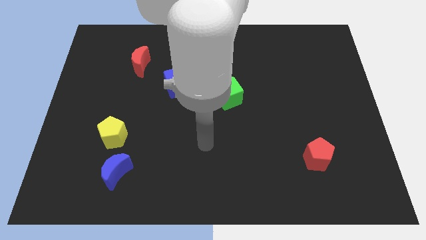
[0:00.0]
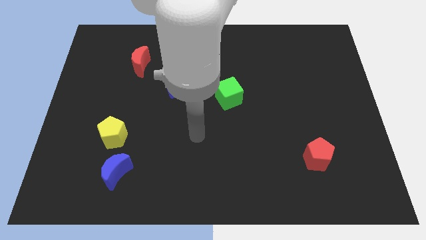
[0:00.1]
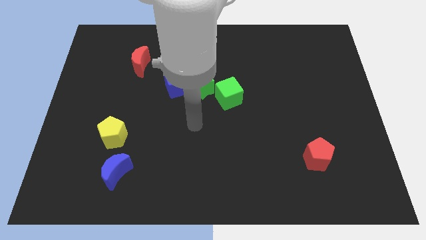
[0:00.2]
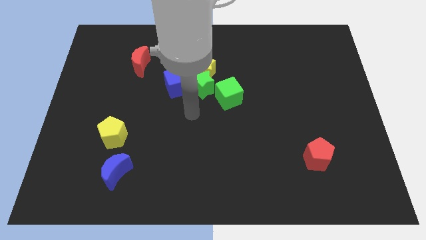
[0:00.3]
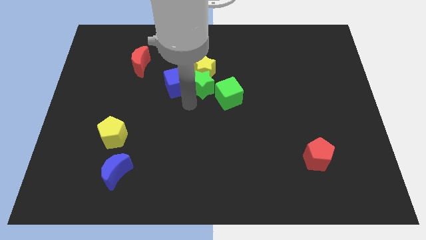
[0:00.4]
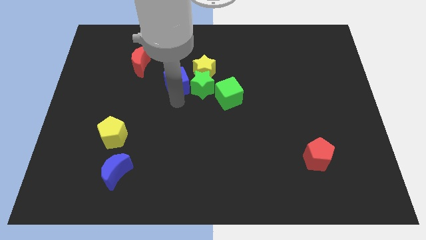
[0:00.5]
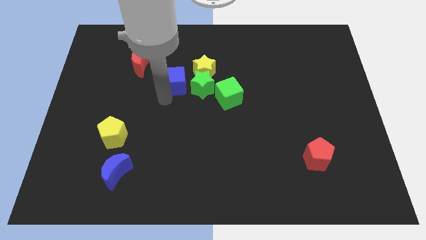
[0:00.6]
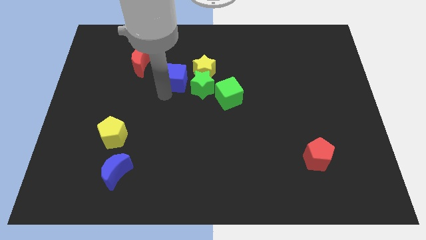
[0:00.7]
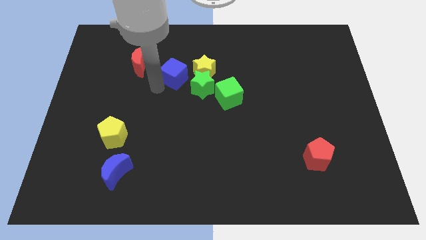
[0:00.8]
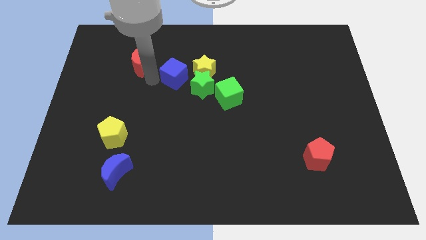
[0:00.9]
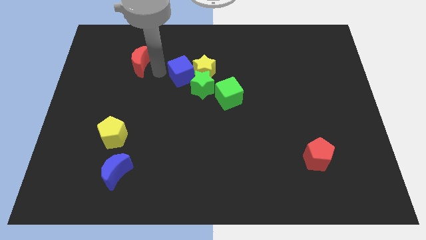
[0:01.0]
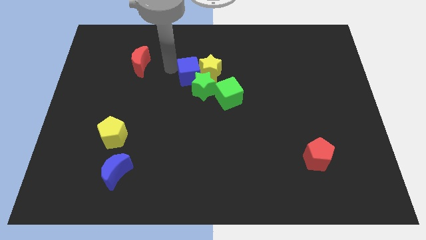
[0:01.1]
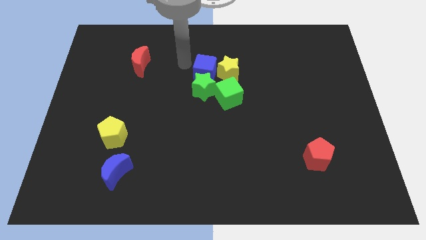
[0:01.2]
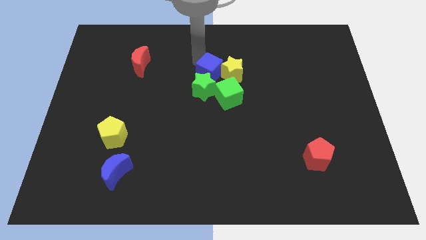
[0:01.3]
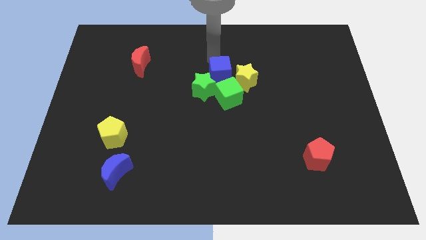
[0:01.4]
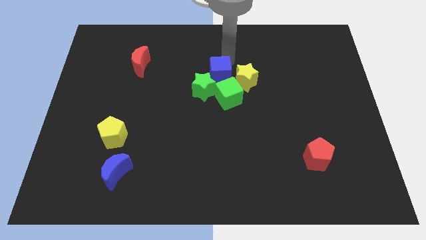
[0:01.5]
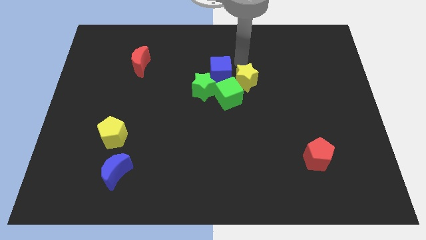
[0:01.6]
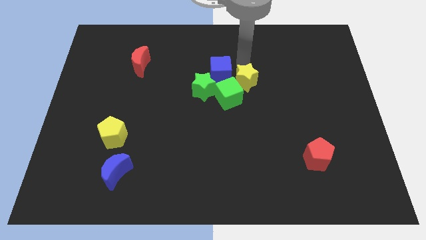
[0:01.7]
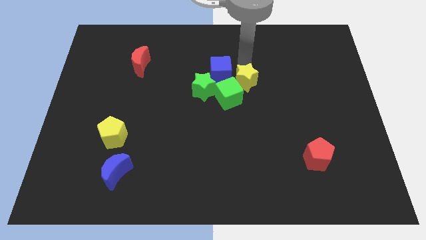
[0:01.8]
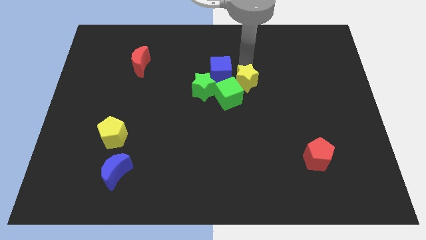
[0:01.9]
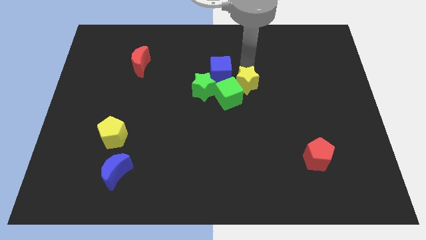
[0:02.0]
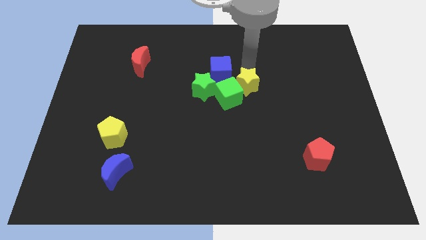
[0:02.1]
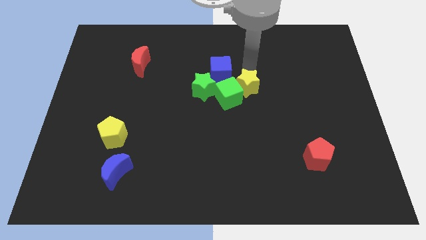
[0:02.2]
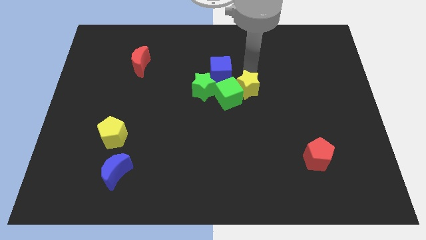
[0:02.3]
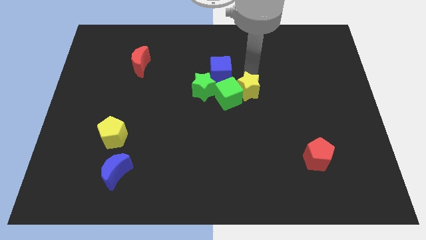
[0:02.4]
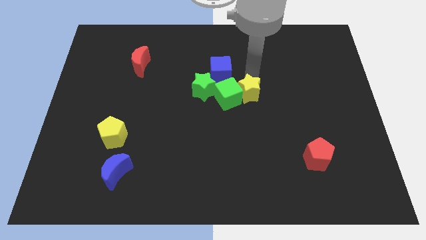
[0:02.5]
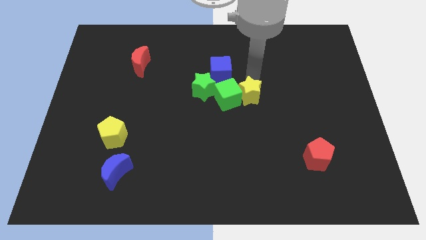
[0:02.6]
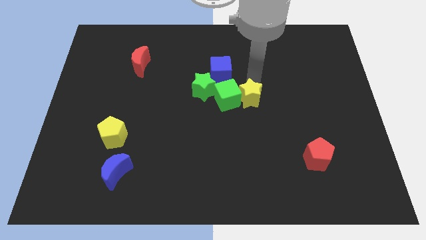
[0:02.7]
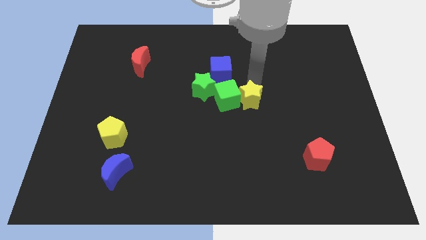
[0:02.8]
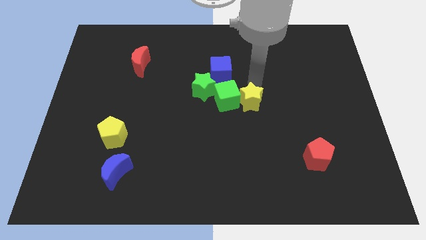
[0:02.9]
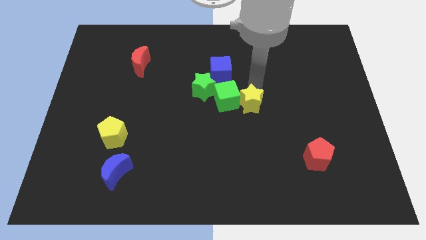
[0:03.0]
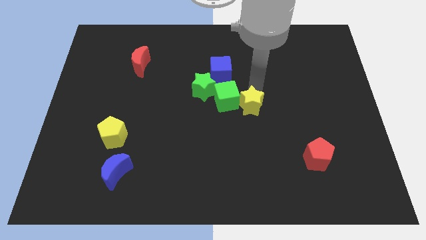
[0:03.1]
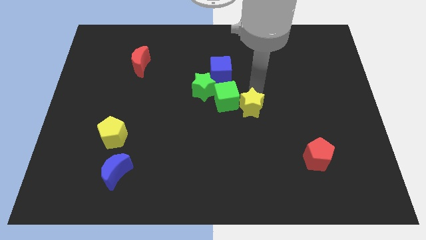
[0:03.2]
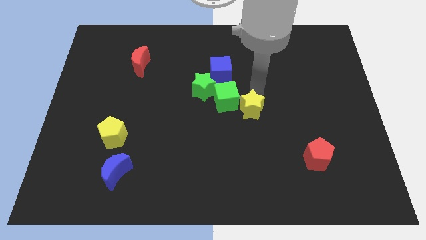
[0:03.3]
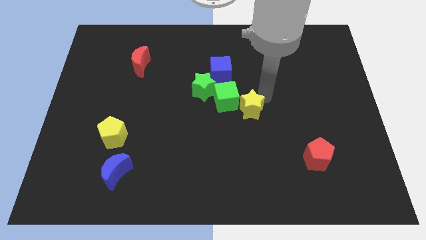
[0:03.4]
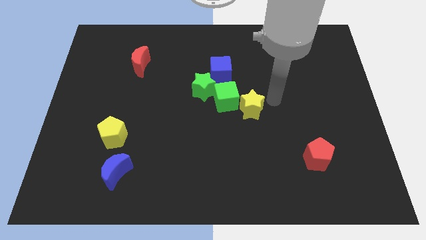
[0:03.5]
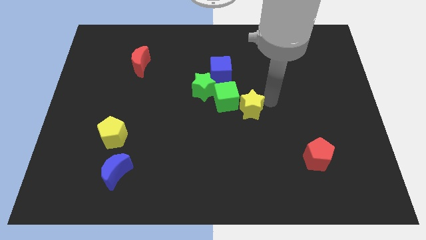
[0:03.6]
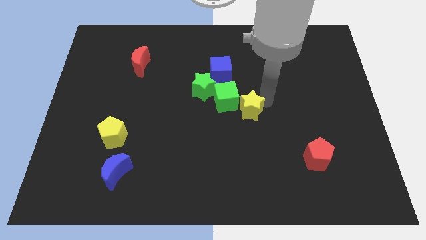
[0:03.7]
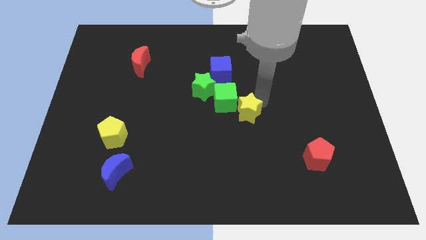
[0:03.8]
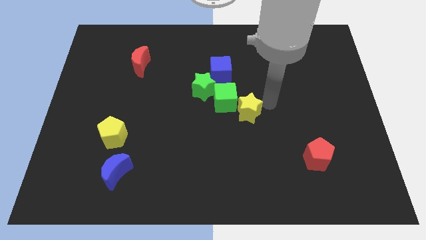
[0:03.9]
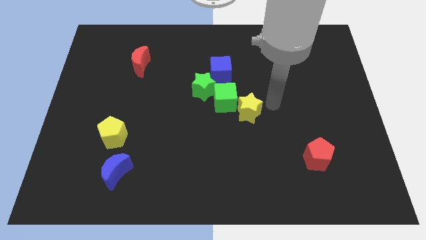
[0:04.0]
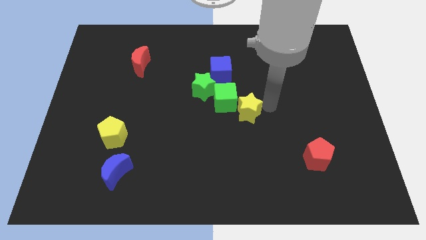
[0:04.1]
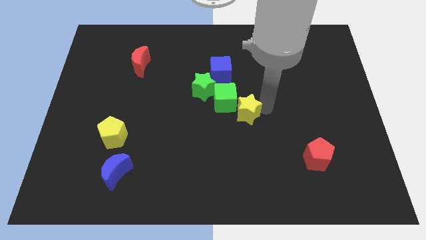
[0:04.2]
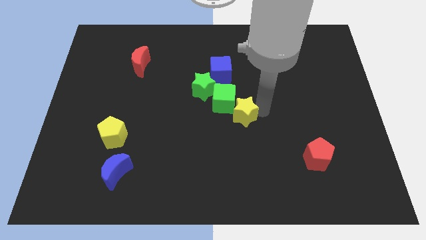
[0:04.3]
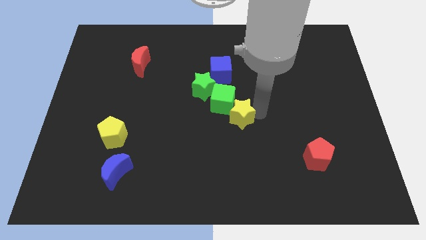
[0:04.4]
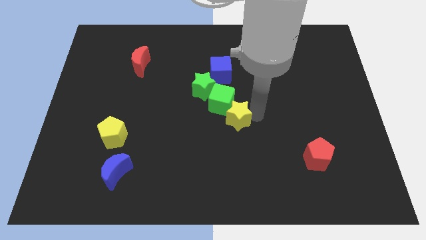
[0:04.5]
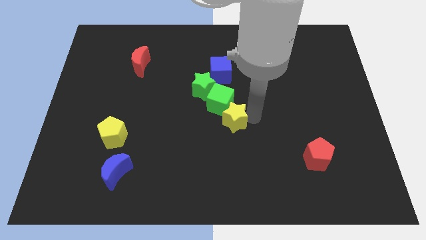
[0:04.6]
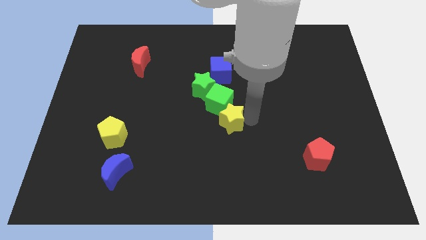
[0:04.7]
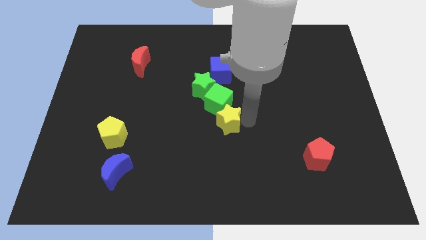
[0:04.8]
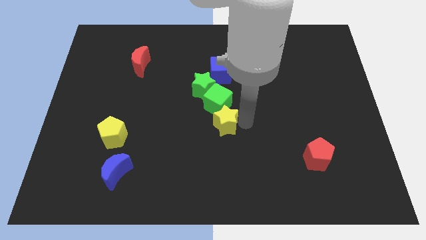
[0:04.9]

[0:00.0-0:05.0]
slide the yellow star to the bottom side of the green star

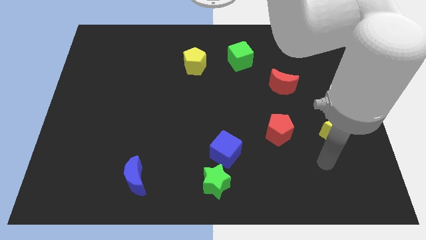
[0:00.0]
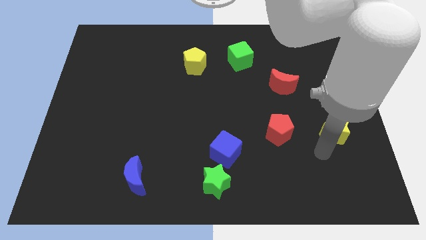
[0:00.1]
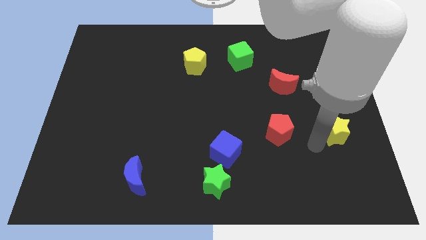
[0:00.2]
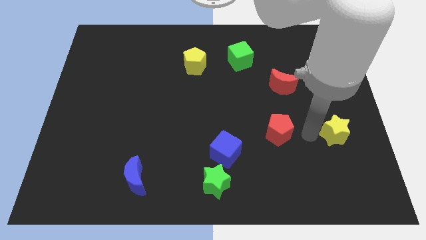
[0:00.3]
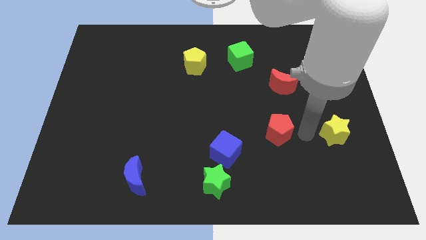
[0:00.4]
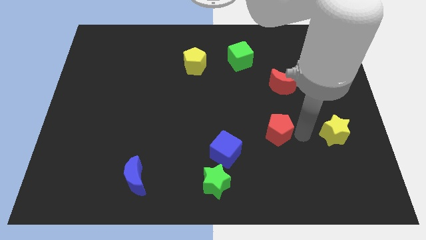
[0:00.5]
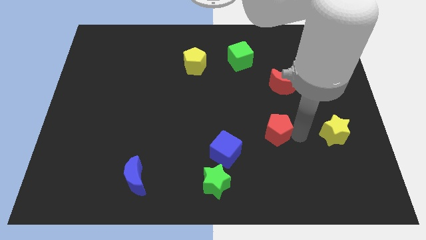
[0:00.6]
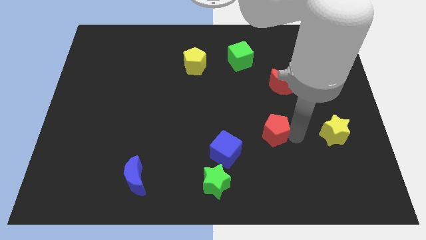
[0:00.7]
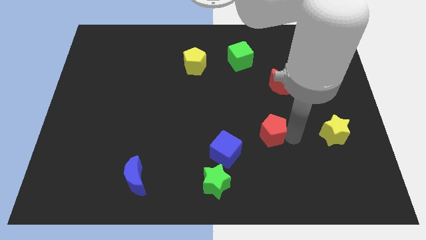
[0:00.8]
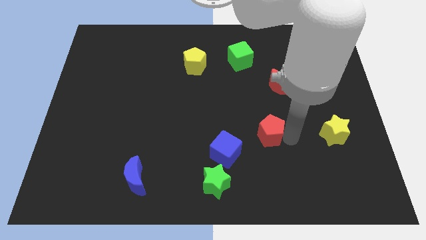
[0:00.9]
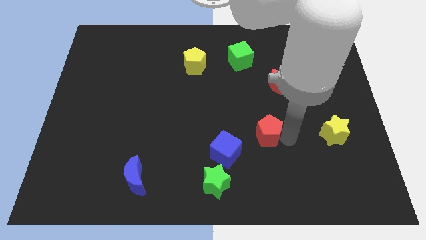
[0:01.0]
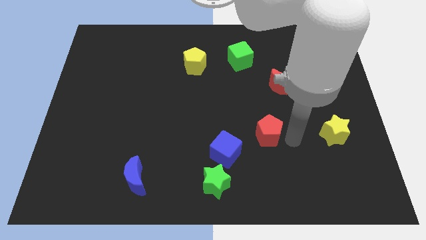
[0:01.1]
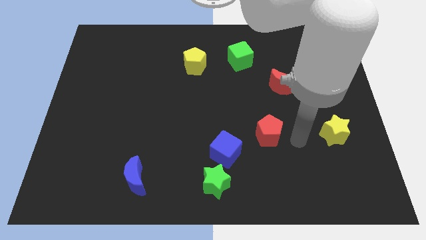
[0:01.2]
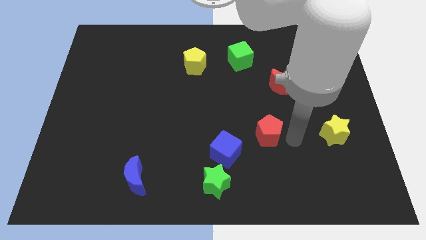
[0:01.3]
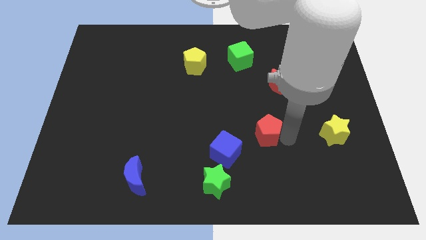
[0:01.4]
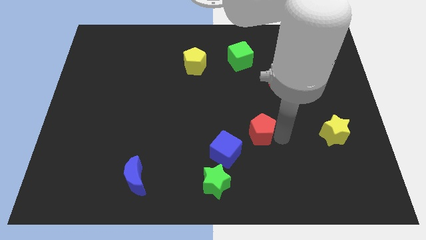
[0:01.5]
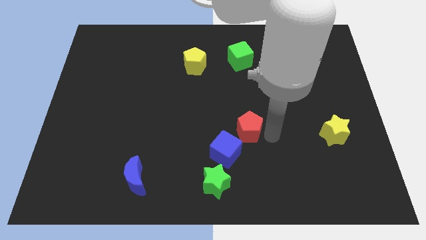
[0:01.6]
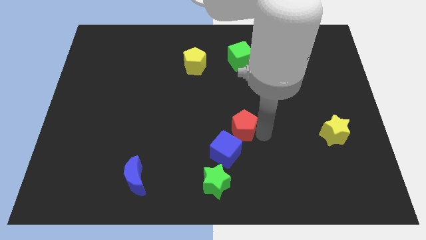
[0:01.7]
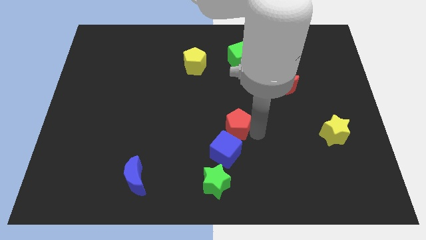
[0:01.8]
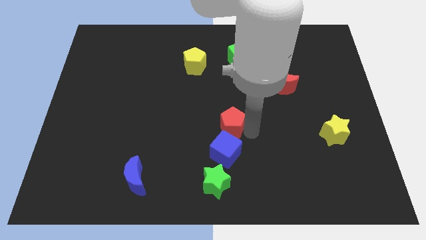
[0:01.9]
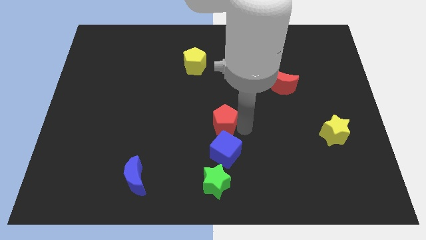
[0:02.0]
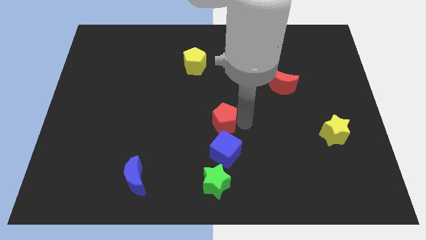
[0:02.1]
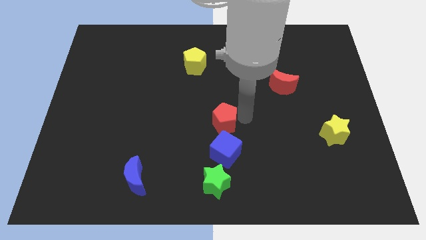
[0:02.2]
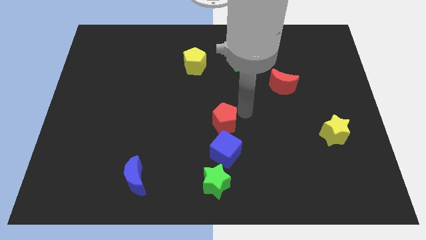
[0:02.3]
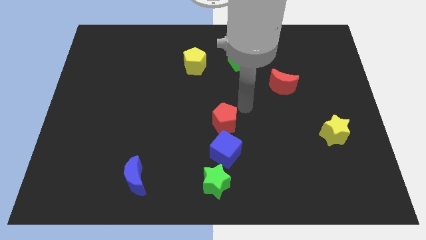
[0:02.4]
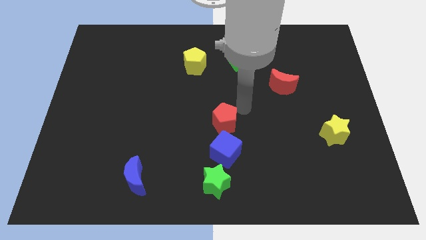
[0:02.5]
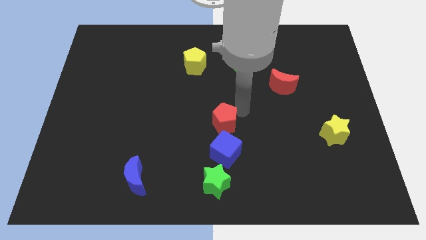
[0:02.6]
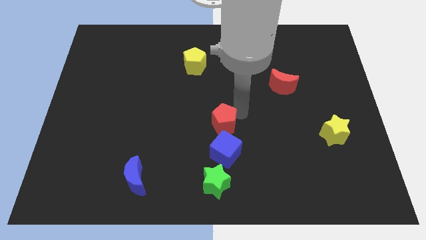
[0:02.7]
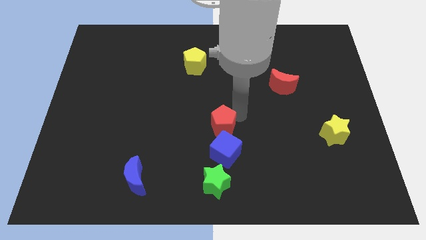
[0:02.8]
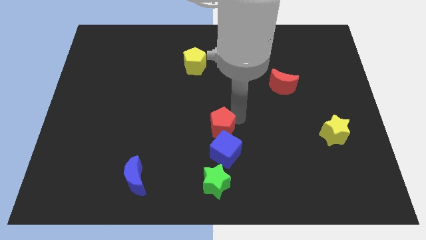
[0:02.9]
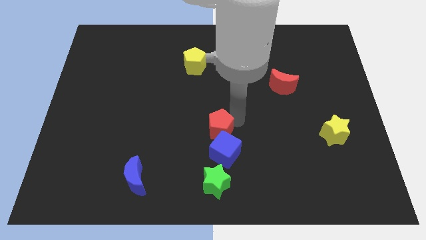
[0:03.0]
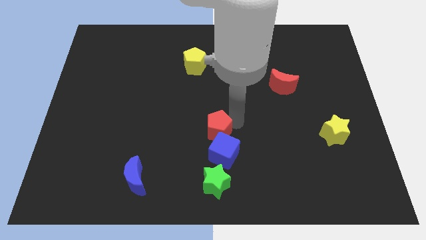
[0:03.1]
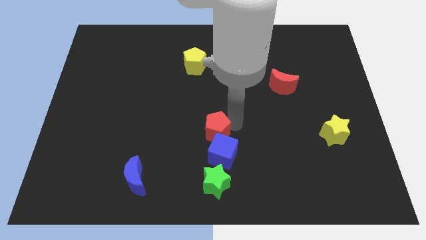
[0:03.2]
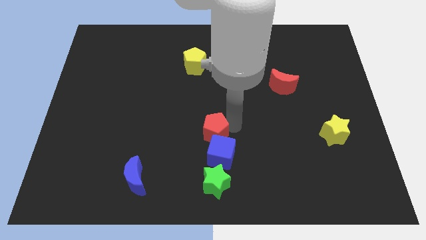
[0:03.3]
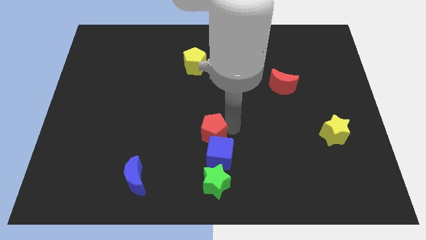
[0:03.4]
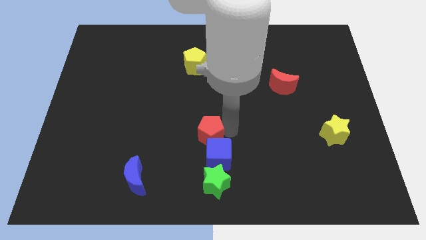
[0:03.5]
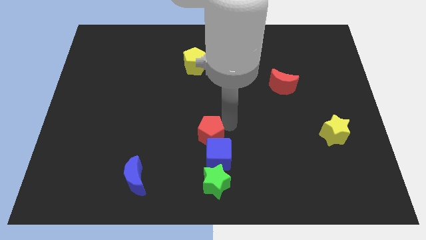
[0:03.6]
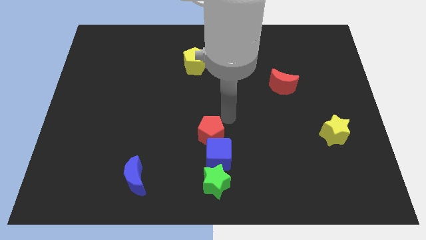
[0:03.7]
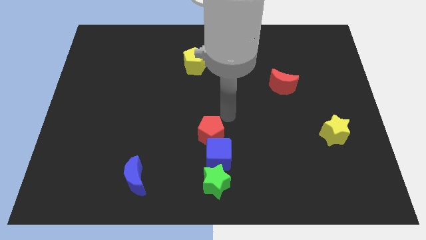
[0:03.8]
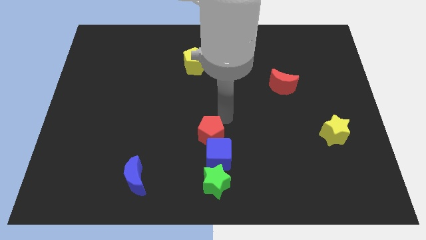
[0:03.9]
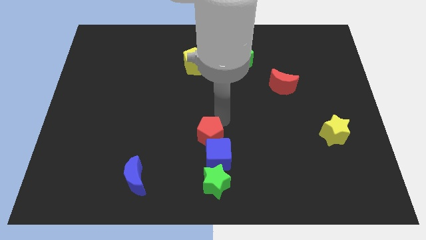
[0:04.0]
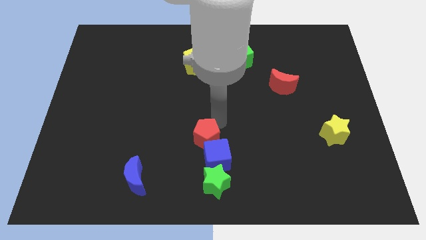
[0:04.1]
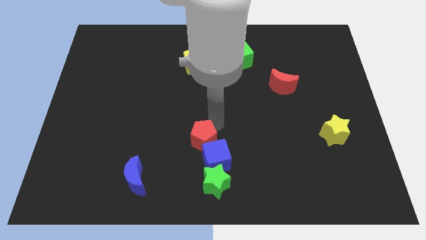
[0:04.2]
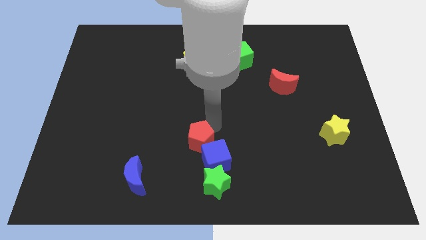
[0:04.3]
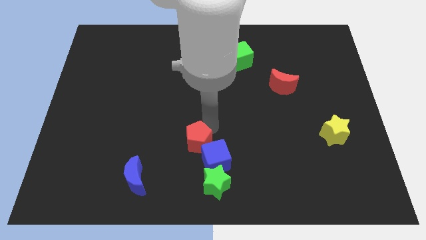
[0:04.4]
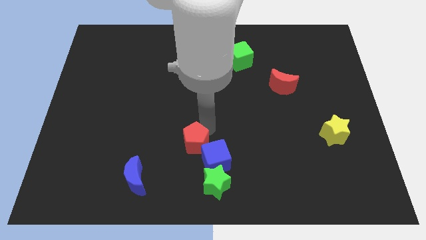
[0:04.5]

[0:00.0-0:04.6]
move the red pentagon to the top left side of the green star
